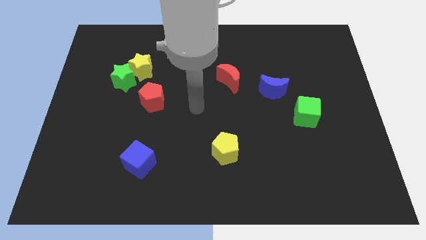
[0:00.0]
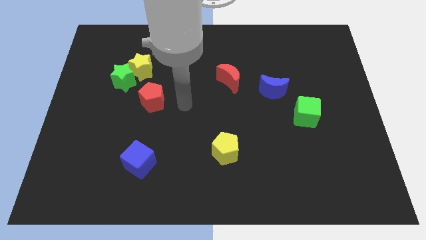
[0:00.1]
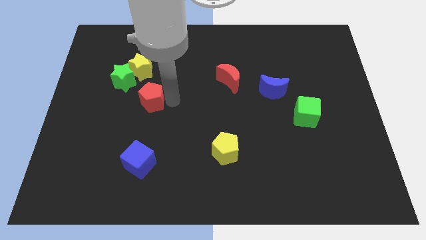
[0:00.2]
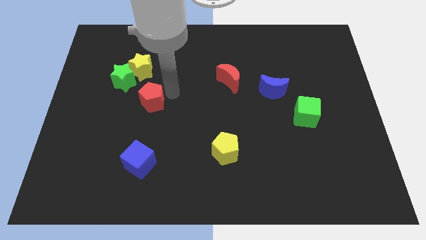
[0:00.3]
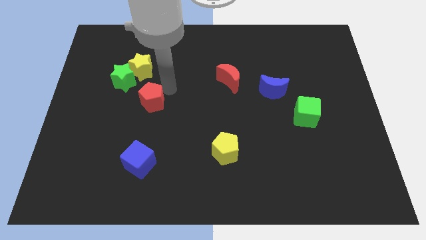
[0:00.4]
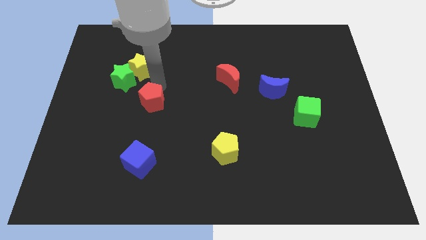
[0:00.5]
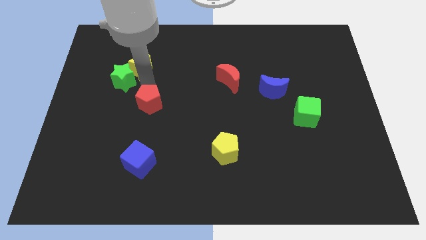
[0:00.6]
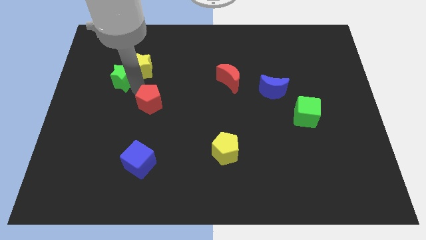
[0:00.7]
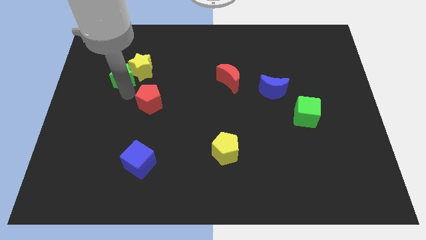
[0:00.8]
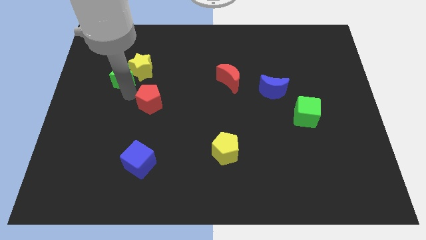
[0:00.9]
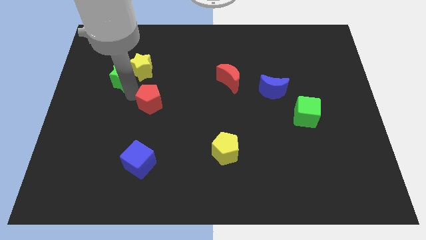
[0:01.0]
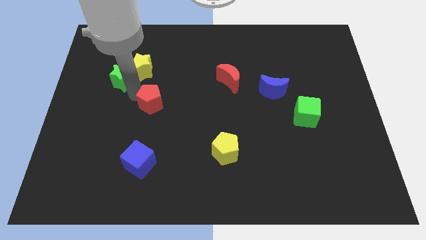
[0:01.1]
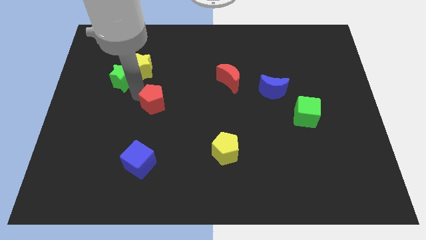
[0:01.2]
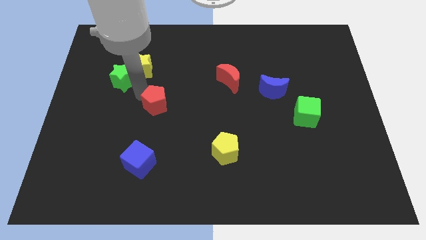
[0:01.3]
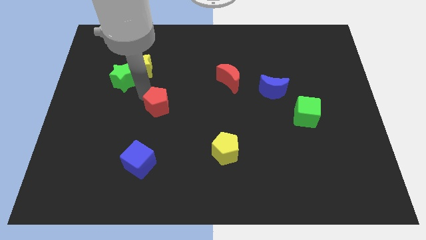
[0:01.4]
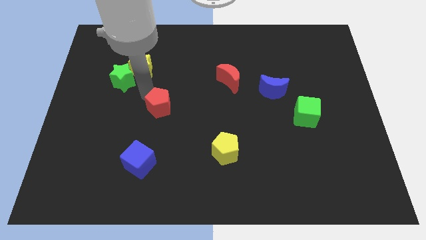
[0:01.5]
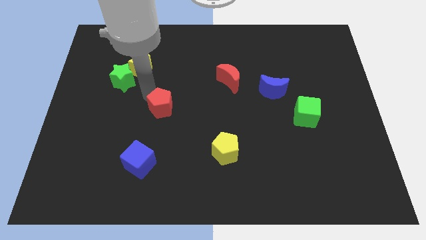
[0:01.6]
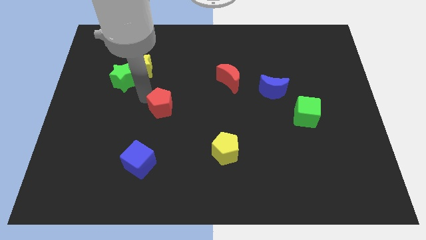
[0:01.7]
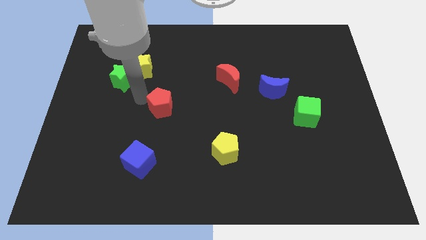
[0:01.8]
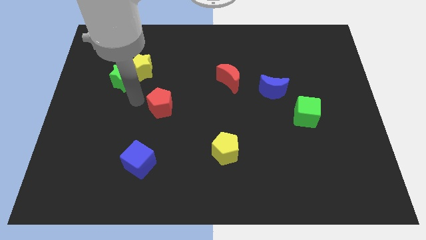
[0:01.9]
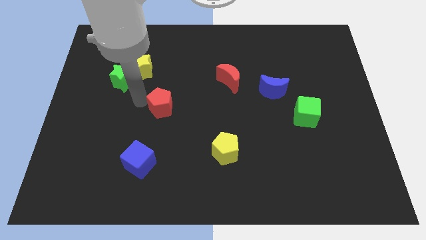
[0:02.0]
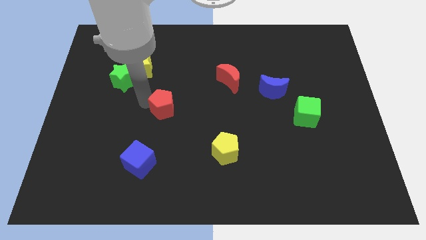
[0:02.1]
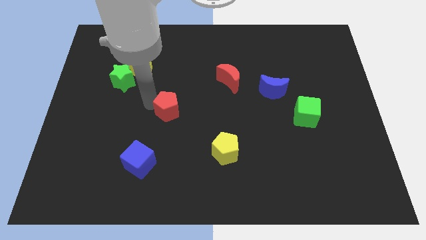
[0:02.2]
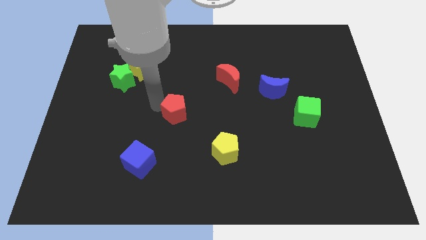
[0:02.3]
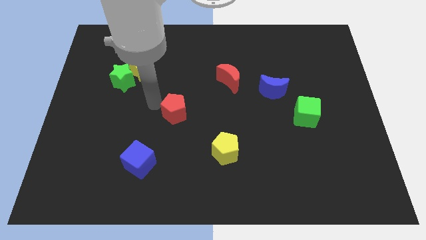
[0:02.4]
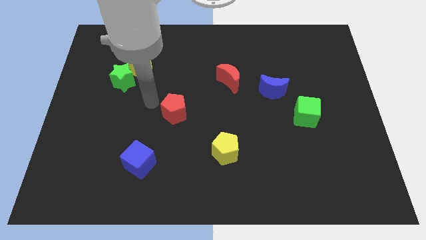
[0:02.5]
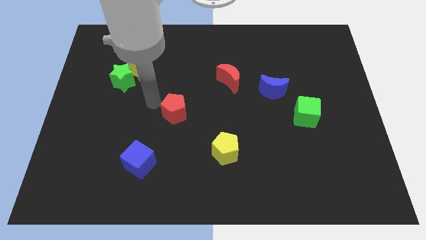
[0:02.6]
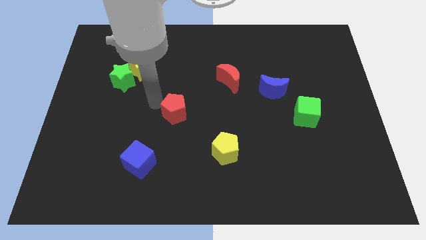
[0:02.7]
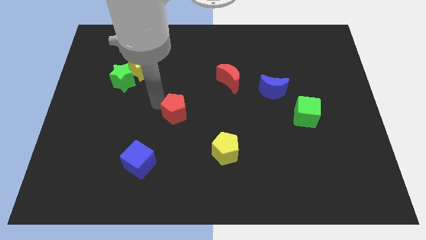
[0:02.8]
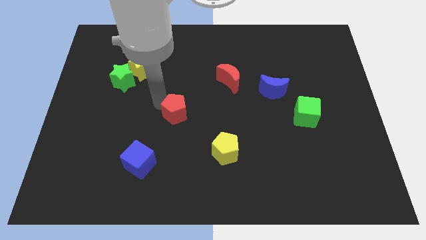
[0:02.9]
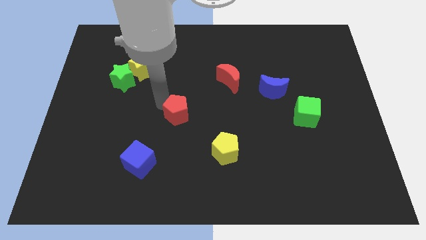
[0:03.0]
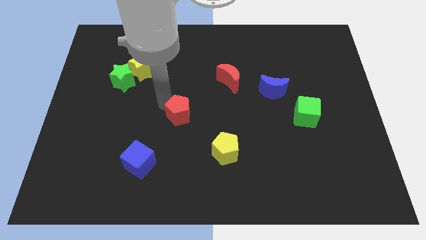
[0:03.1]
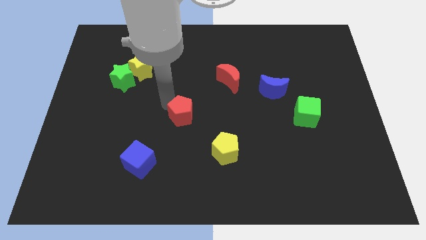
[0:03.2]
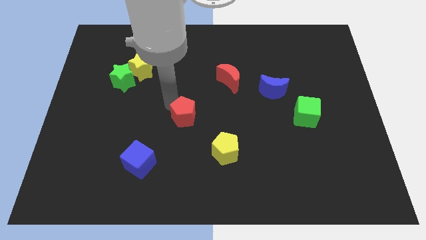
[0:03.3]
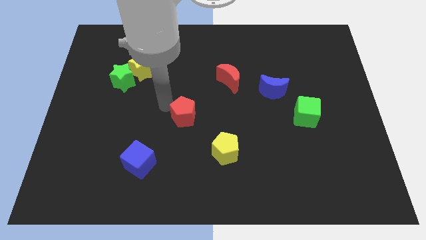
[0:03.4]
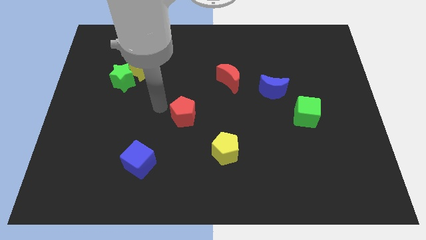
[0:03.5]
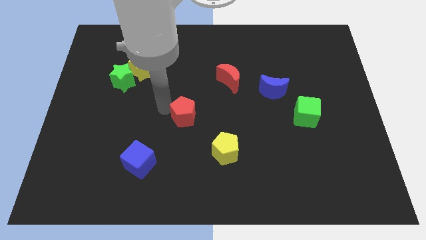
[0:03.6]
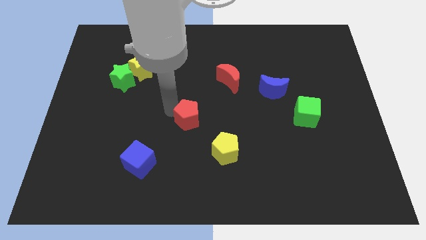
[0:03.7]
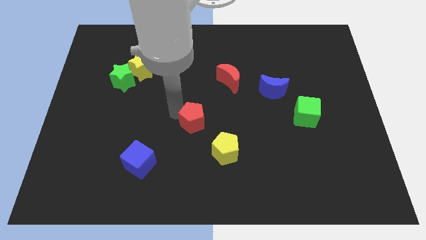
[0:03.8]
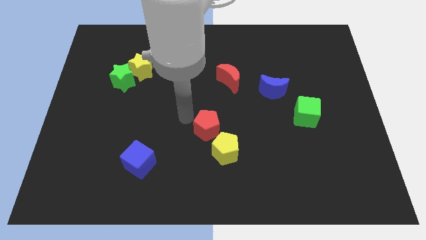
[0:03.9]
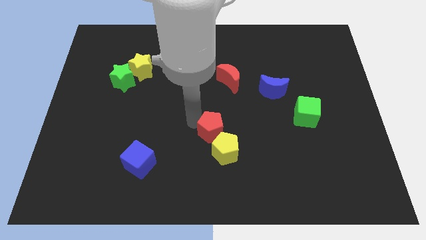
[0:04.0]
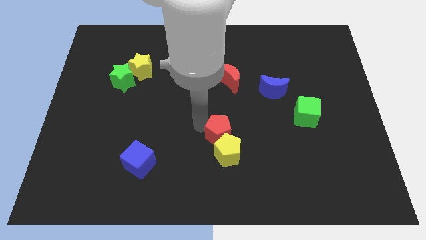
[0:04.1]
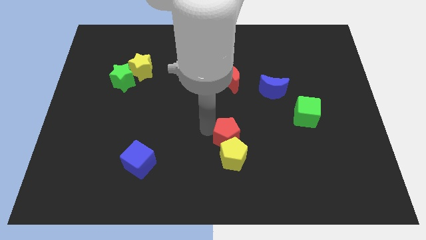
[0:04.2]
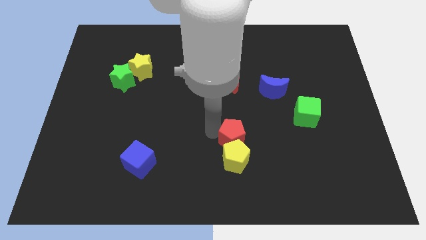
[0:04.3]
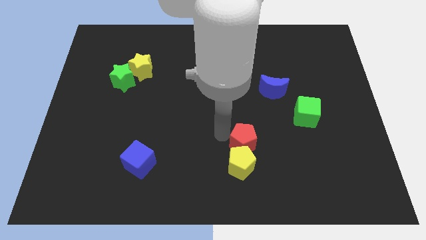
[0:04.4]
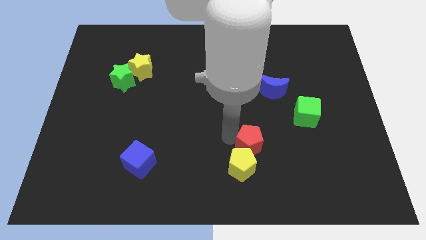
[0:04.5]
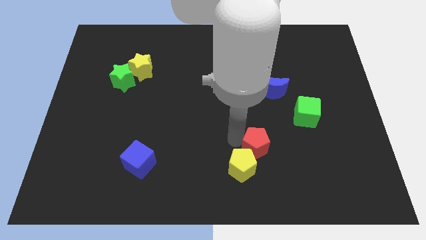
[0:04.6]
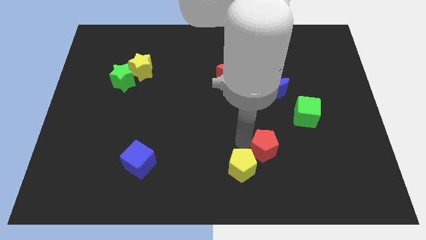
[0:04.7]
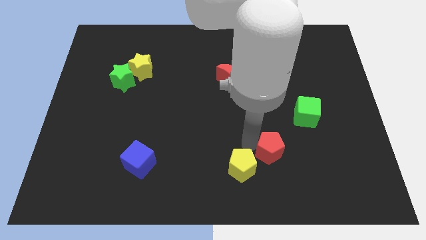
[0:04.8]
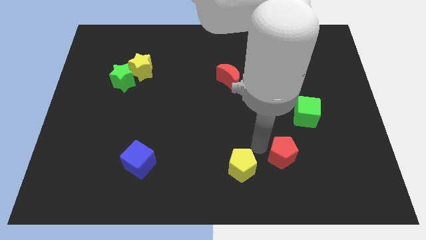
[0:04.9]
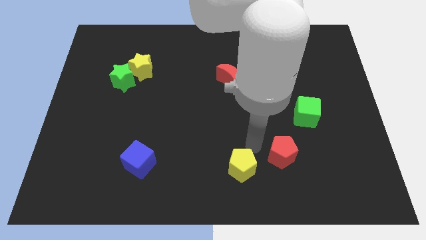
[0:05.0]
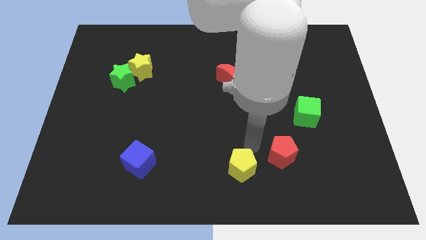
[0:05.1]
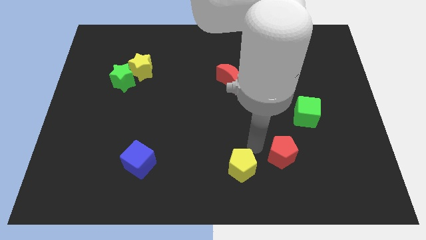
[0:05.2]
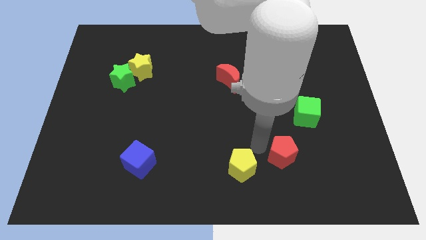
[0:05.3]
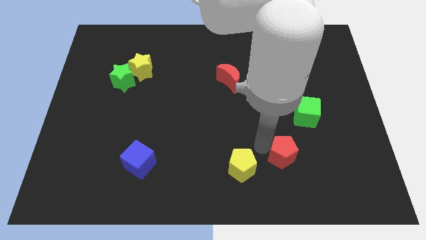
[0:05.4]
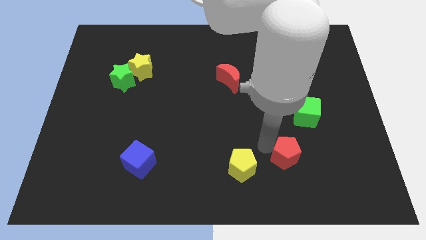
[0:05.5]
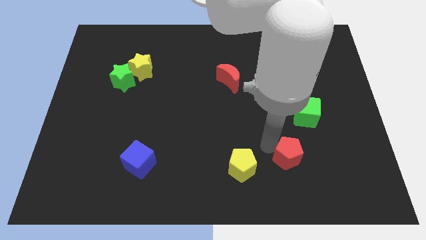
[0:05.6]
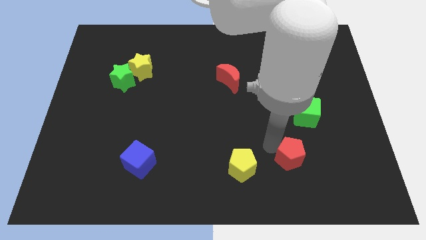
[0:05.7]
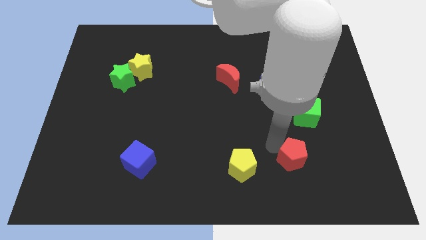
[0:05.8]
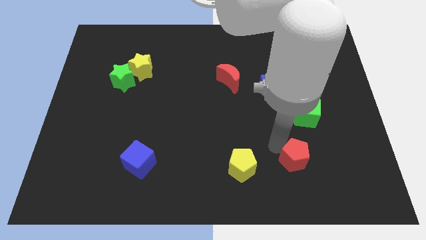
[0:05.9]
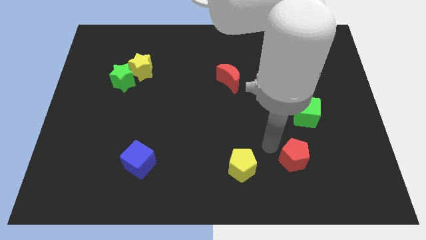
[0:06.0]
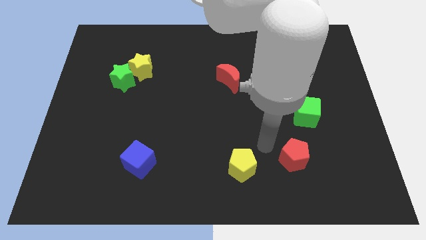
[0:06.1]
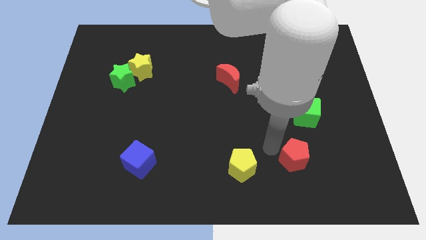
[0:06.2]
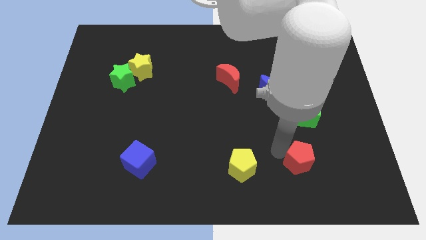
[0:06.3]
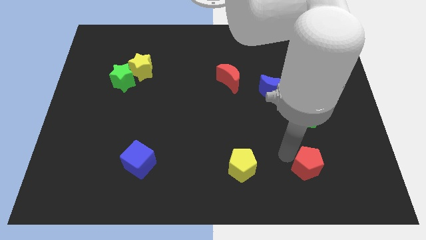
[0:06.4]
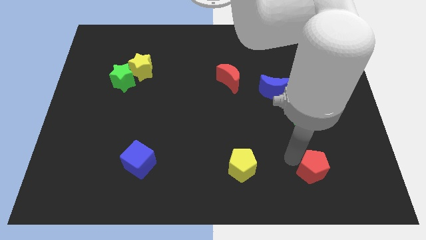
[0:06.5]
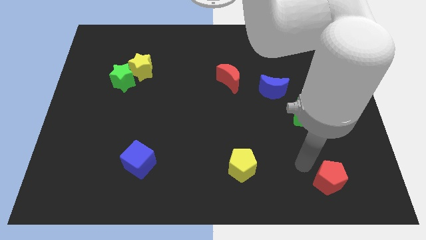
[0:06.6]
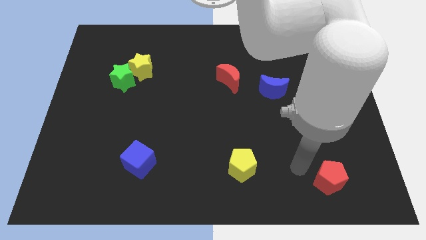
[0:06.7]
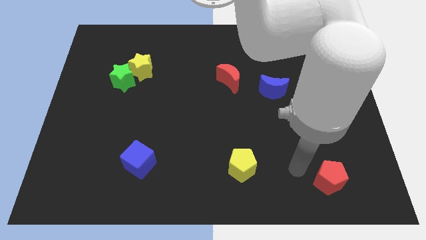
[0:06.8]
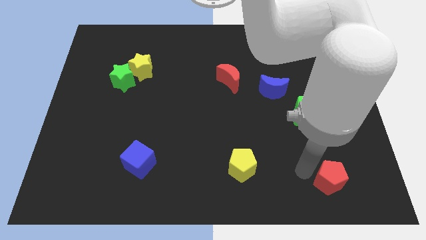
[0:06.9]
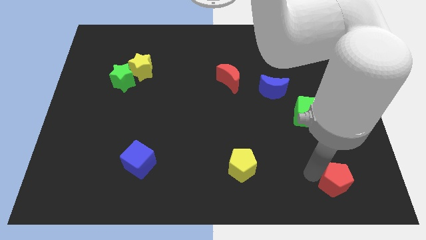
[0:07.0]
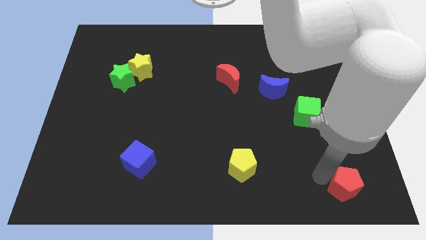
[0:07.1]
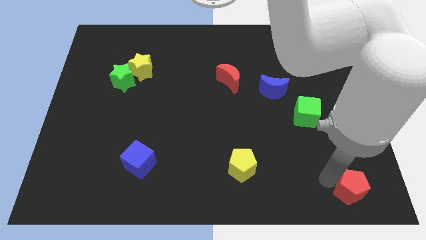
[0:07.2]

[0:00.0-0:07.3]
slide the red pentagon to the bottom right corner

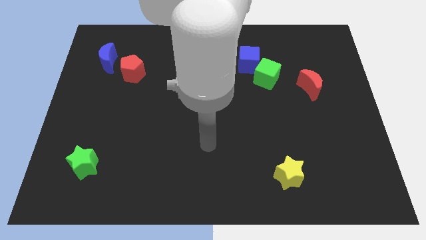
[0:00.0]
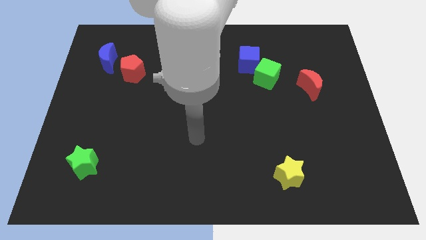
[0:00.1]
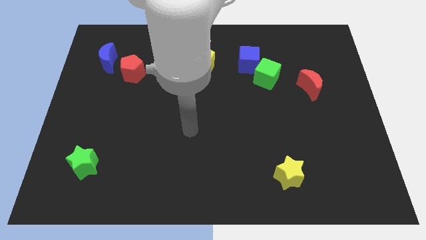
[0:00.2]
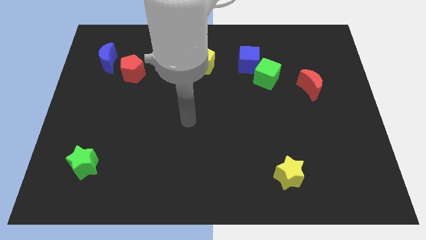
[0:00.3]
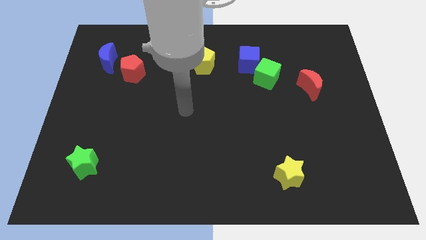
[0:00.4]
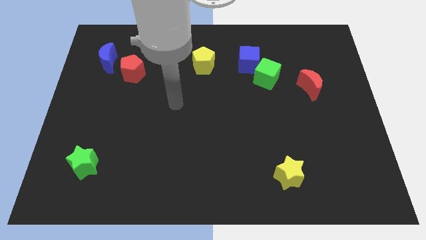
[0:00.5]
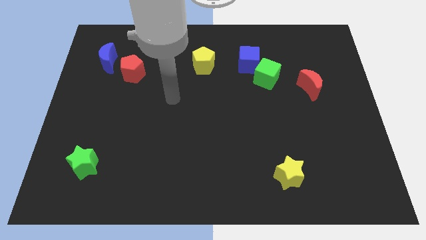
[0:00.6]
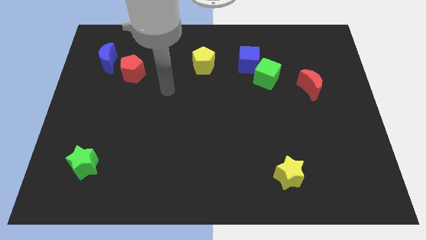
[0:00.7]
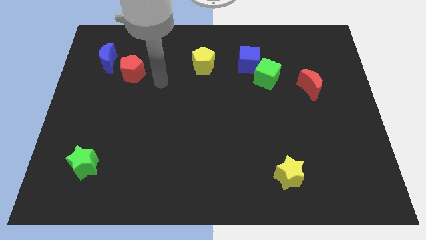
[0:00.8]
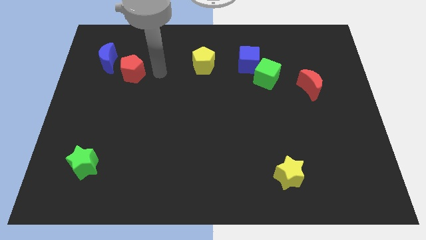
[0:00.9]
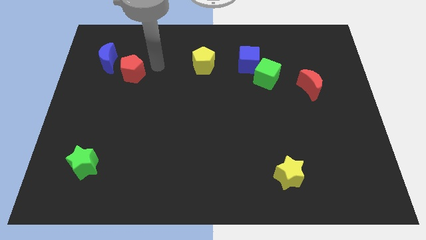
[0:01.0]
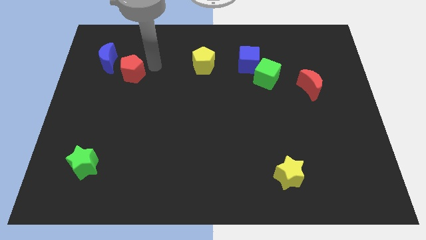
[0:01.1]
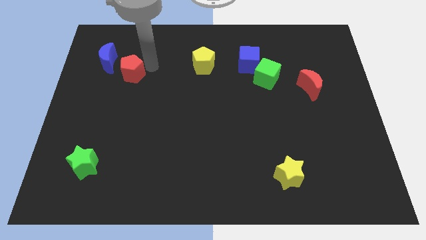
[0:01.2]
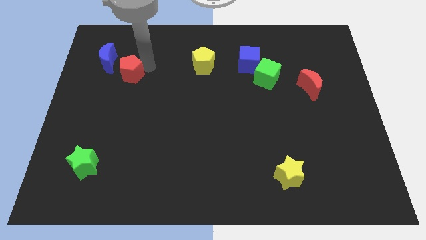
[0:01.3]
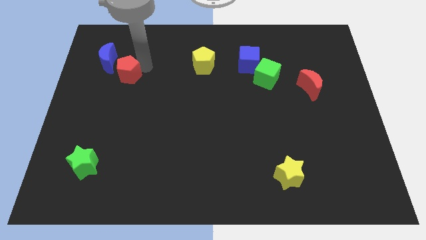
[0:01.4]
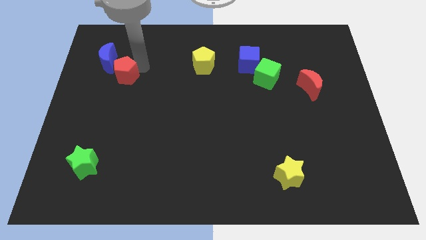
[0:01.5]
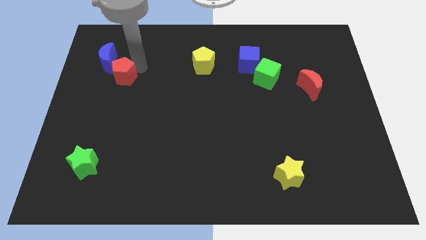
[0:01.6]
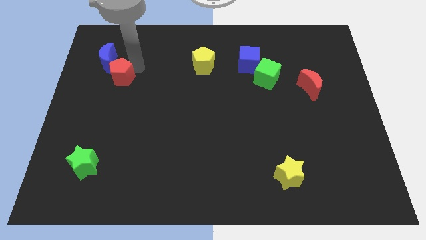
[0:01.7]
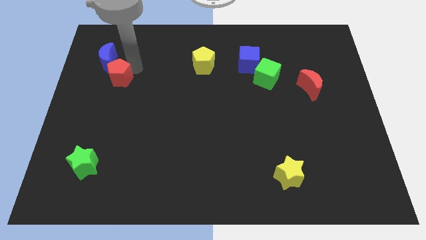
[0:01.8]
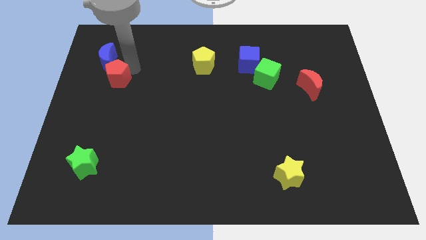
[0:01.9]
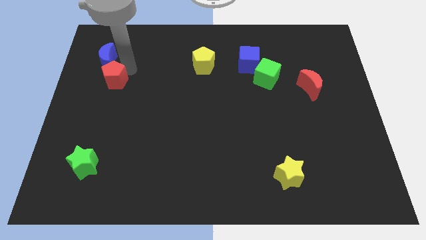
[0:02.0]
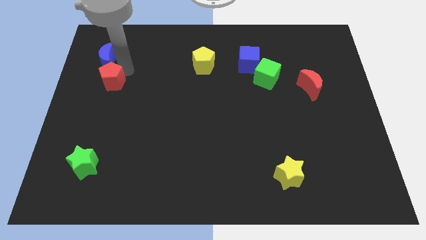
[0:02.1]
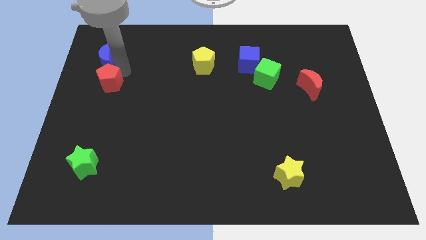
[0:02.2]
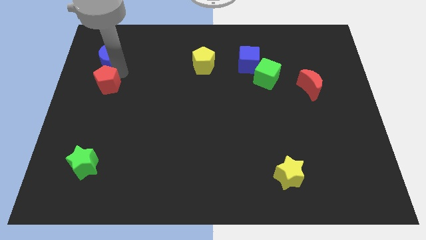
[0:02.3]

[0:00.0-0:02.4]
move the red pentagon to the left side
